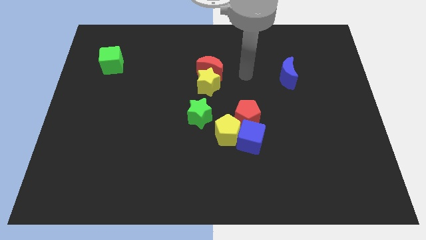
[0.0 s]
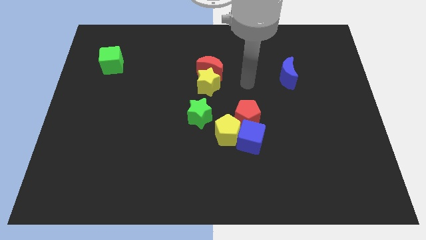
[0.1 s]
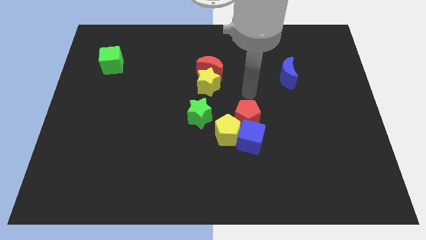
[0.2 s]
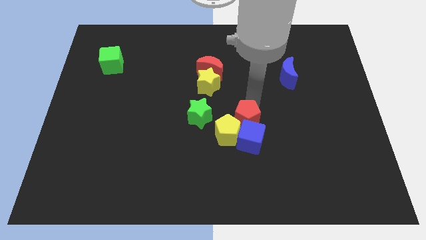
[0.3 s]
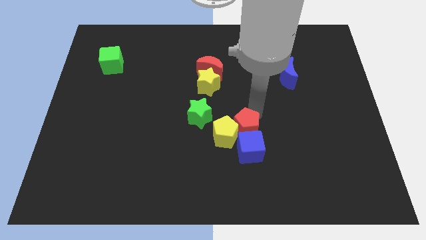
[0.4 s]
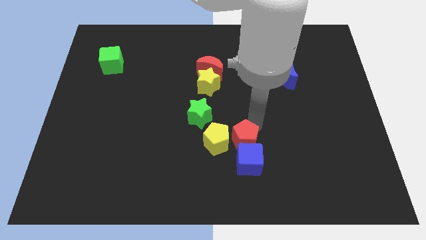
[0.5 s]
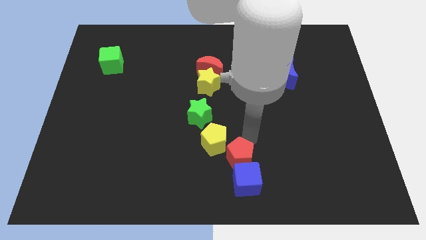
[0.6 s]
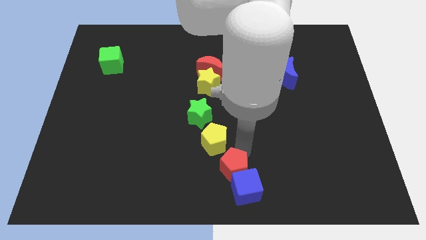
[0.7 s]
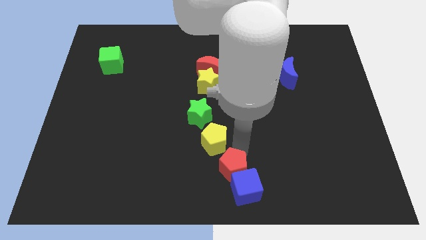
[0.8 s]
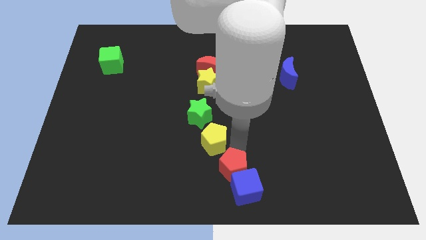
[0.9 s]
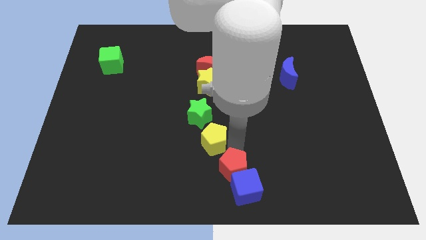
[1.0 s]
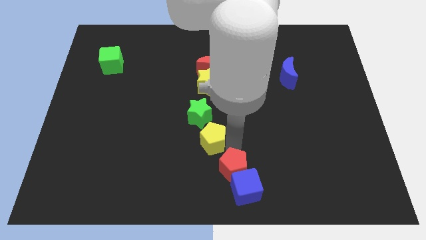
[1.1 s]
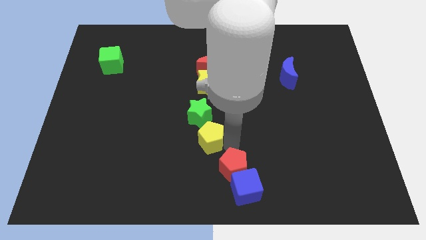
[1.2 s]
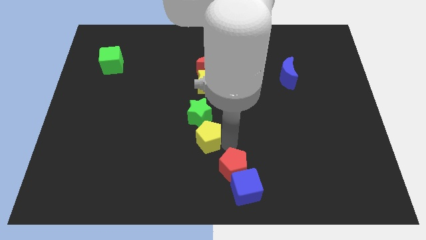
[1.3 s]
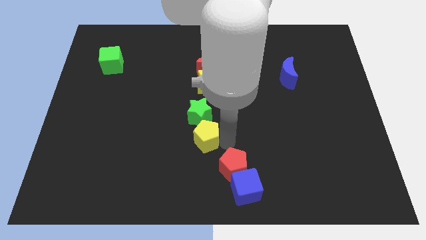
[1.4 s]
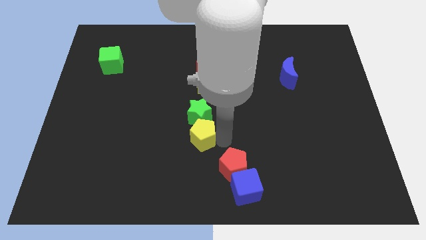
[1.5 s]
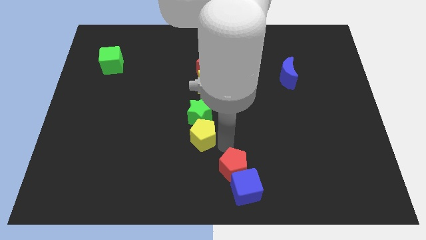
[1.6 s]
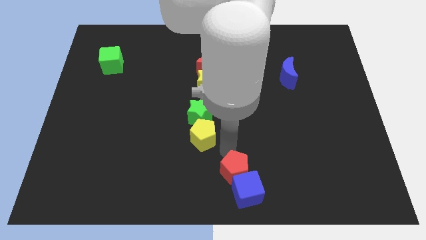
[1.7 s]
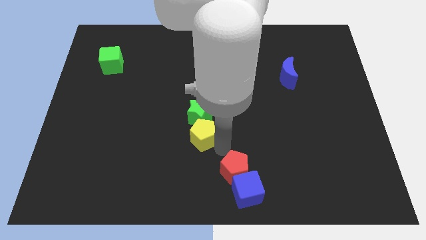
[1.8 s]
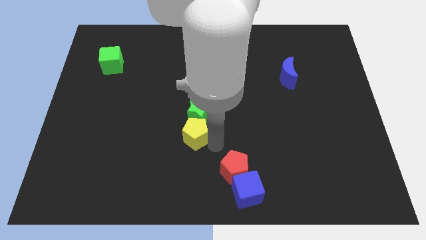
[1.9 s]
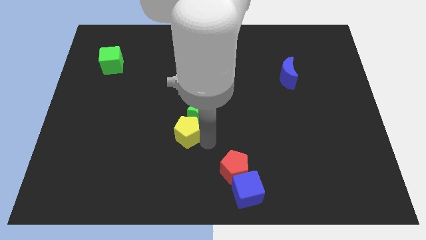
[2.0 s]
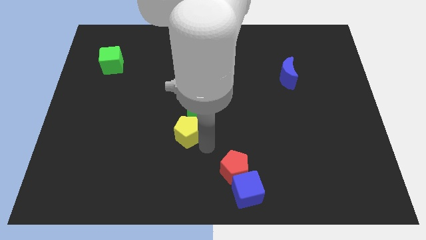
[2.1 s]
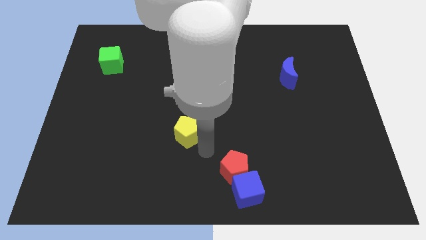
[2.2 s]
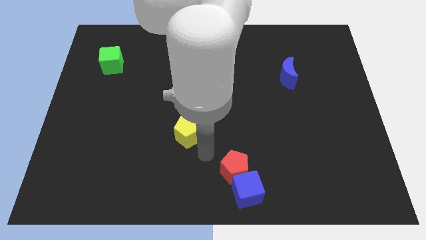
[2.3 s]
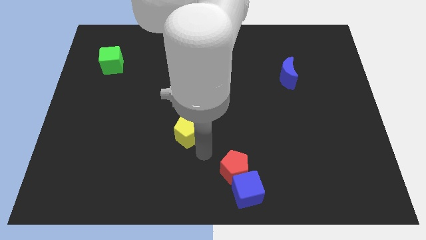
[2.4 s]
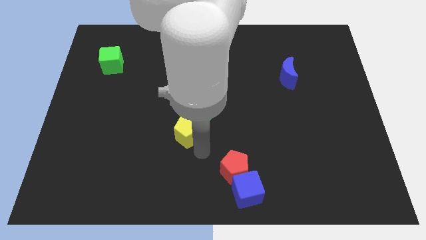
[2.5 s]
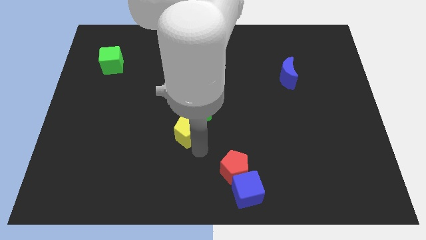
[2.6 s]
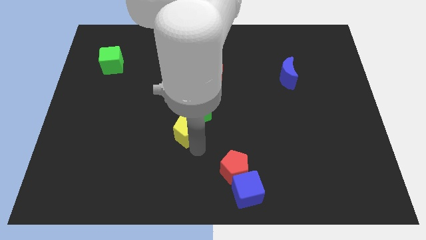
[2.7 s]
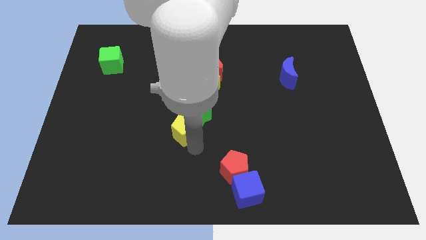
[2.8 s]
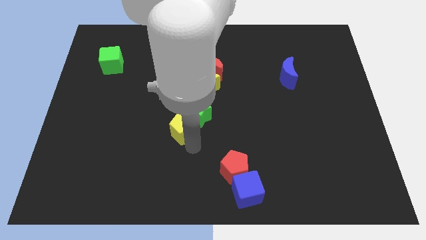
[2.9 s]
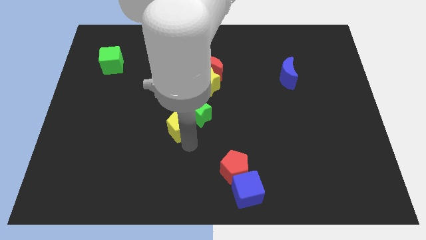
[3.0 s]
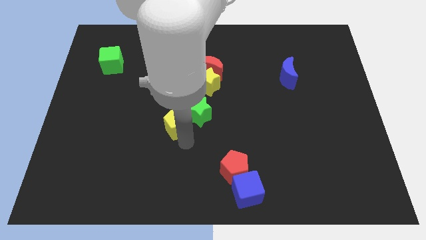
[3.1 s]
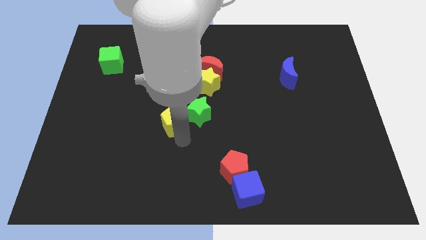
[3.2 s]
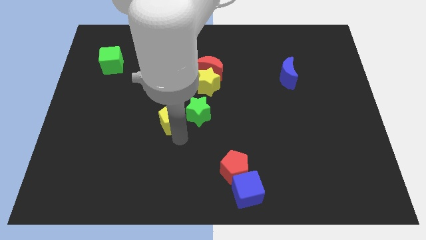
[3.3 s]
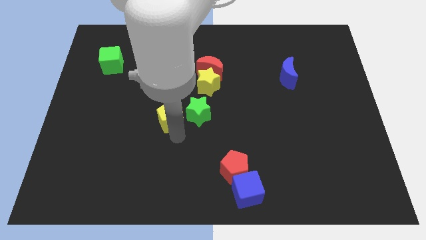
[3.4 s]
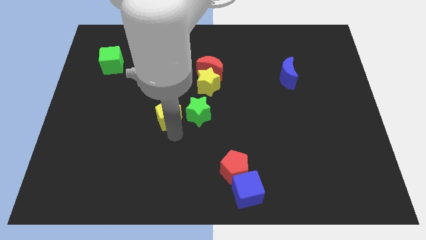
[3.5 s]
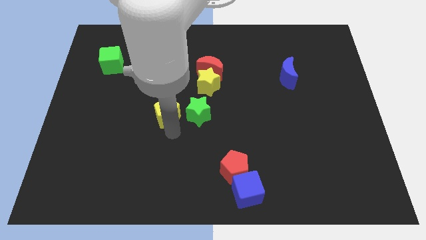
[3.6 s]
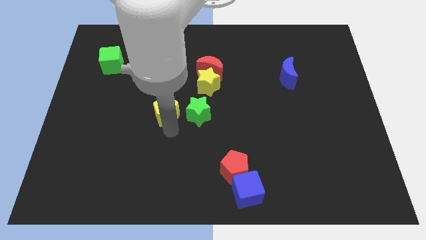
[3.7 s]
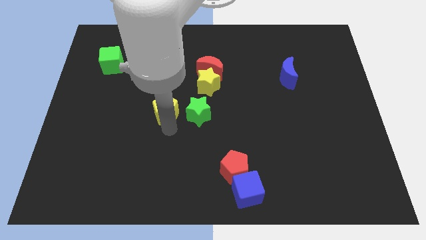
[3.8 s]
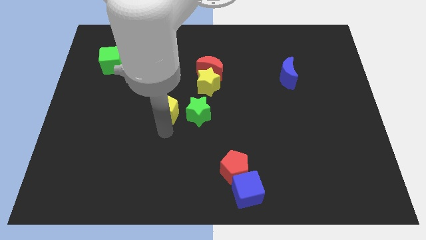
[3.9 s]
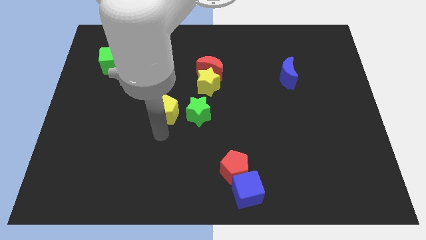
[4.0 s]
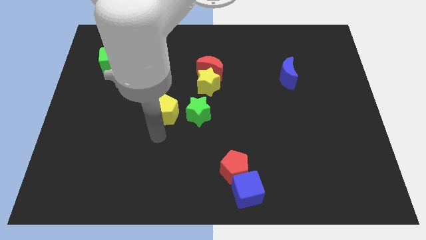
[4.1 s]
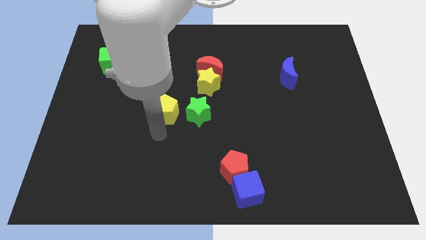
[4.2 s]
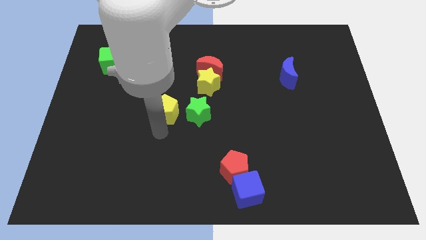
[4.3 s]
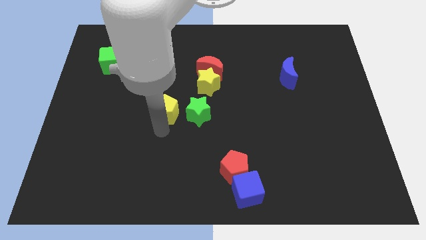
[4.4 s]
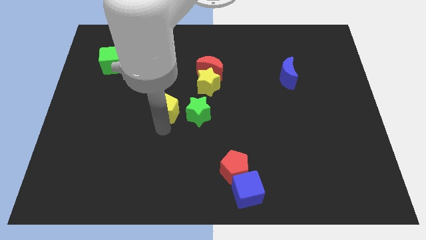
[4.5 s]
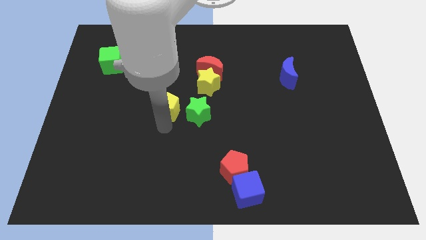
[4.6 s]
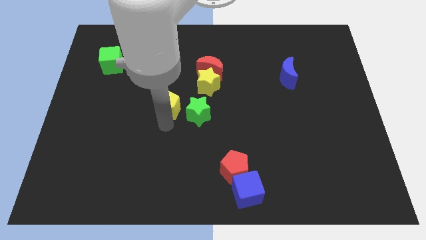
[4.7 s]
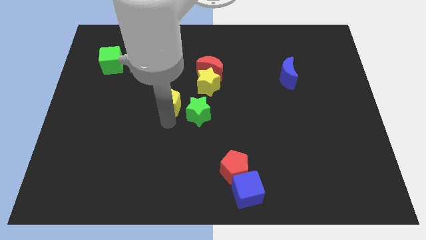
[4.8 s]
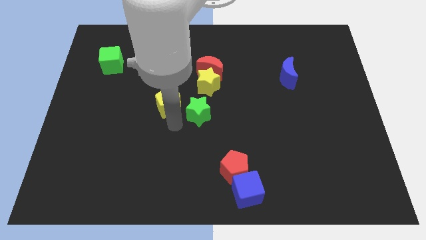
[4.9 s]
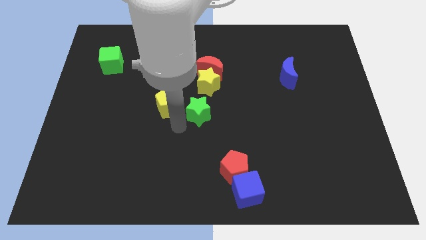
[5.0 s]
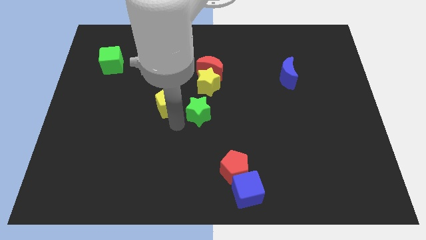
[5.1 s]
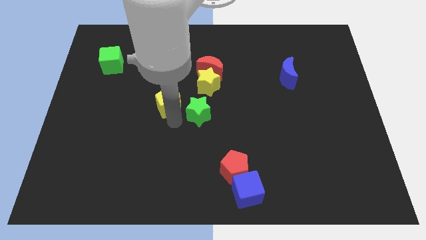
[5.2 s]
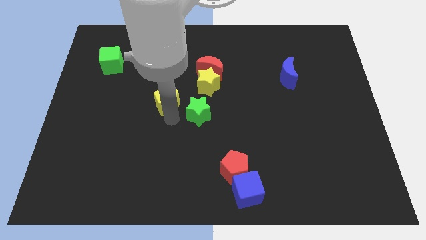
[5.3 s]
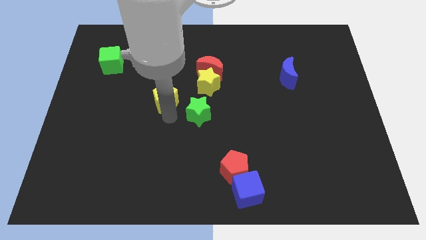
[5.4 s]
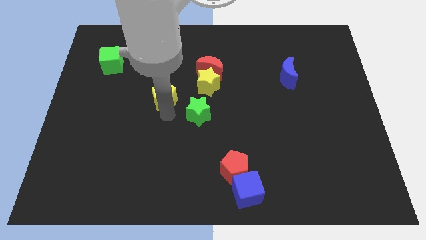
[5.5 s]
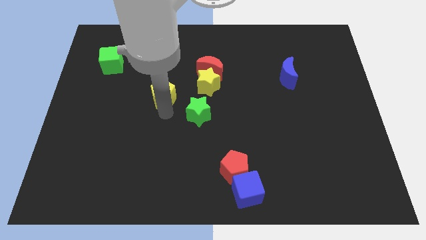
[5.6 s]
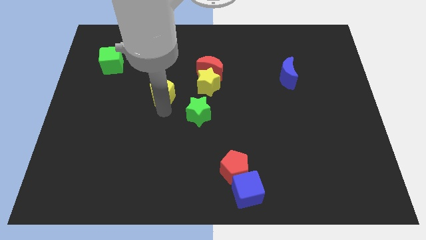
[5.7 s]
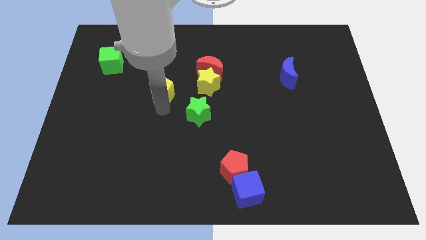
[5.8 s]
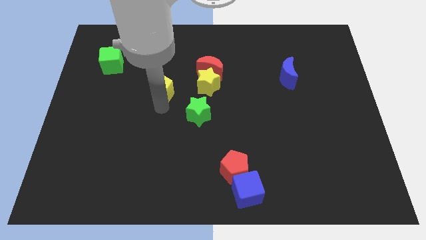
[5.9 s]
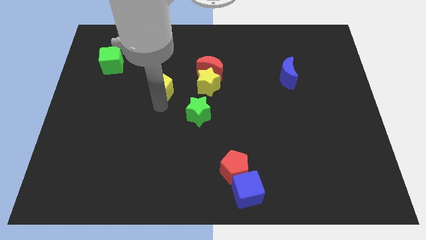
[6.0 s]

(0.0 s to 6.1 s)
move the yellow pentagon upwards and left

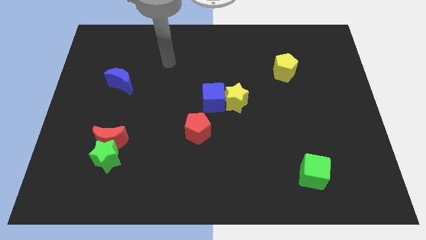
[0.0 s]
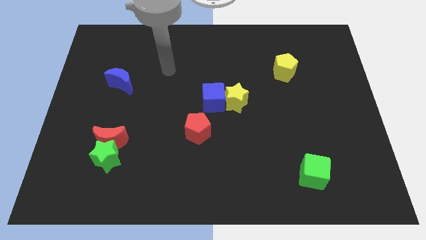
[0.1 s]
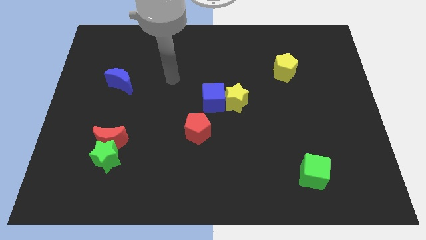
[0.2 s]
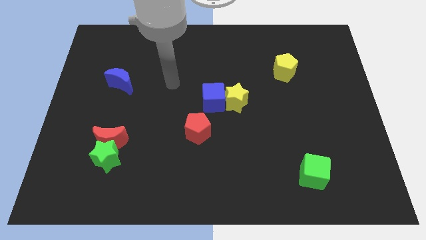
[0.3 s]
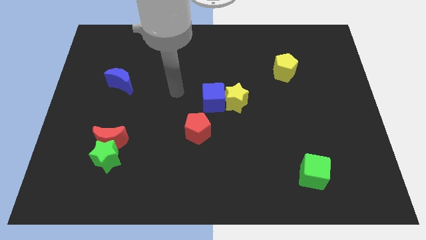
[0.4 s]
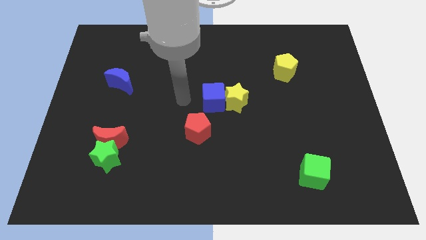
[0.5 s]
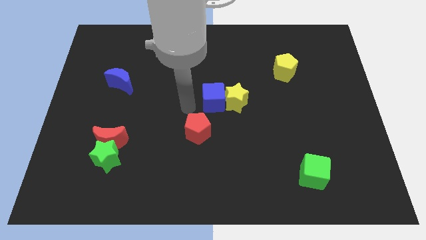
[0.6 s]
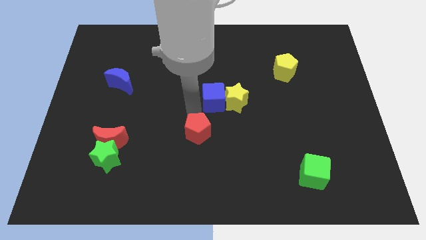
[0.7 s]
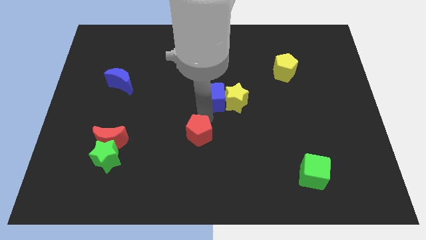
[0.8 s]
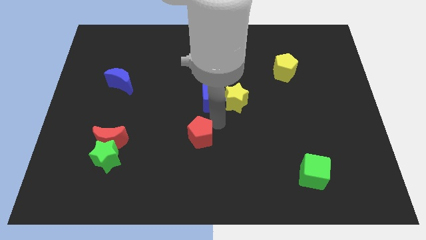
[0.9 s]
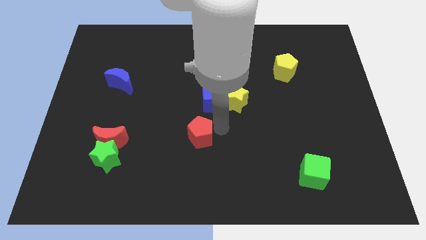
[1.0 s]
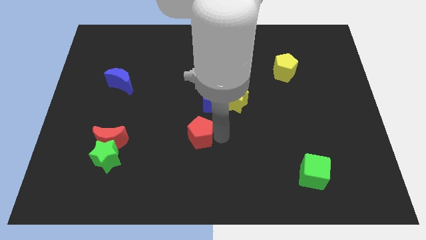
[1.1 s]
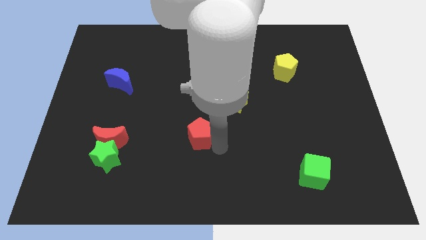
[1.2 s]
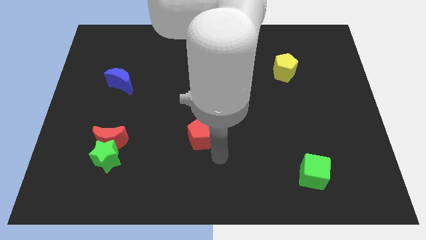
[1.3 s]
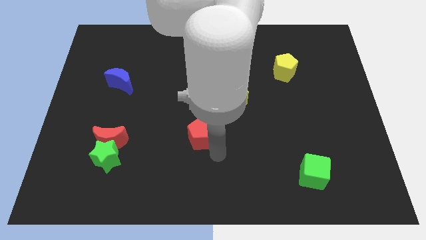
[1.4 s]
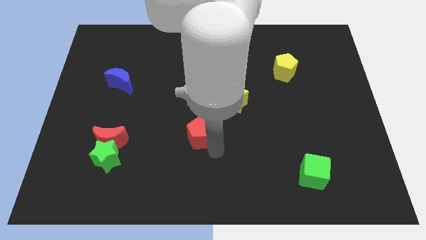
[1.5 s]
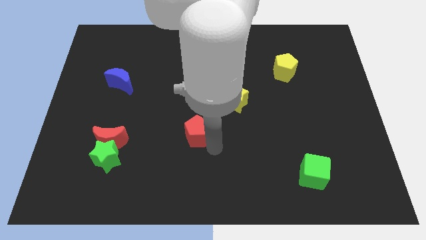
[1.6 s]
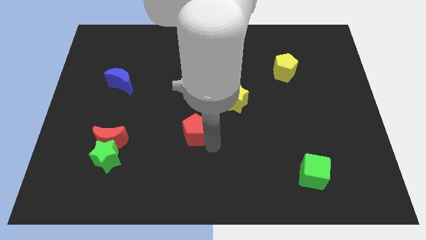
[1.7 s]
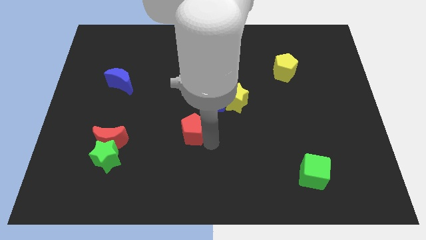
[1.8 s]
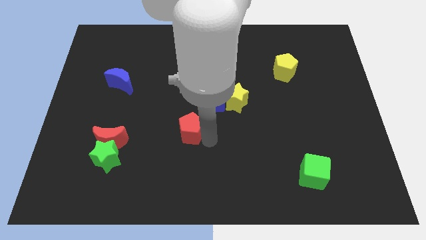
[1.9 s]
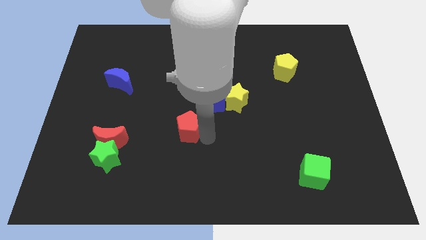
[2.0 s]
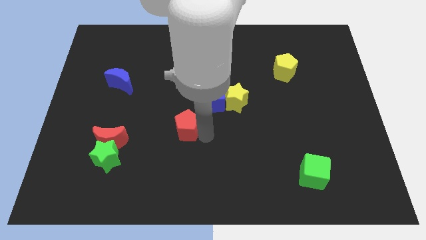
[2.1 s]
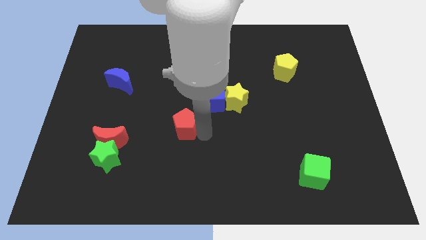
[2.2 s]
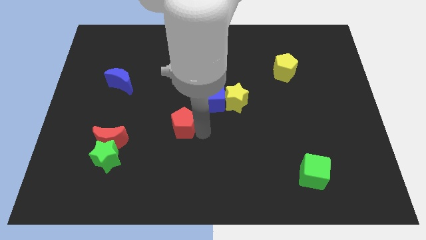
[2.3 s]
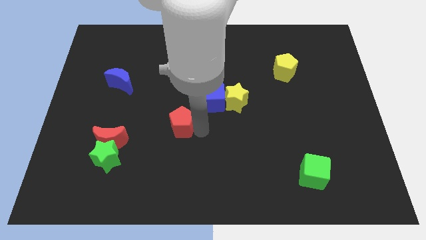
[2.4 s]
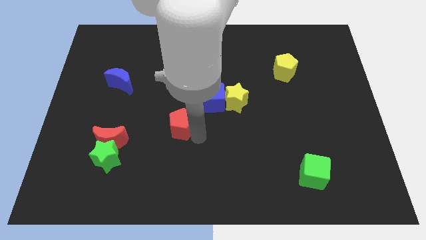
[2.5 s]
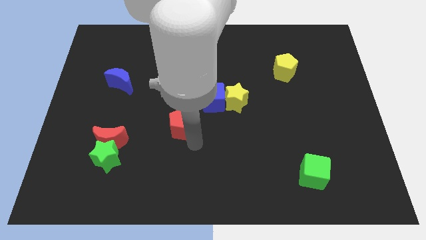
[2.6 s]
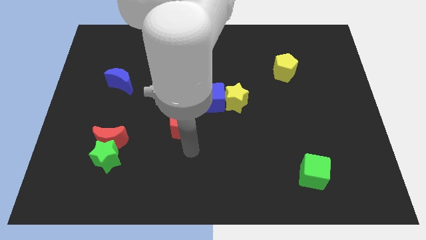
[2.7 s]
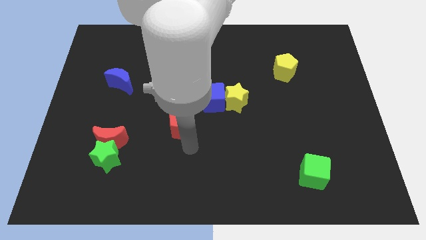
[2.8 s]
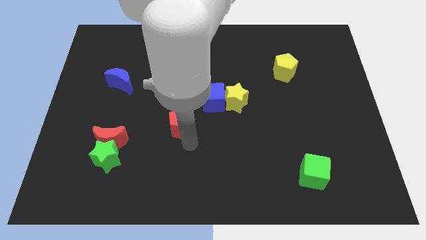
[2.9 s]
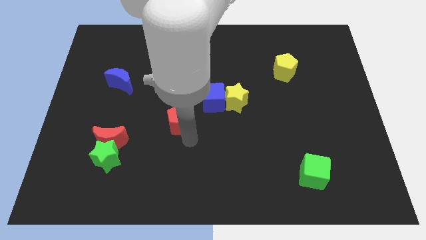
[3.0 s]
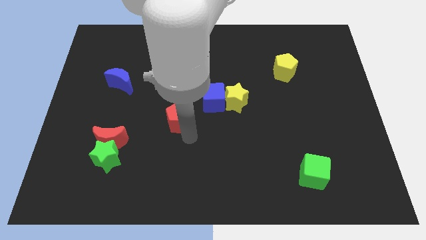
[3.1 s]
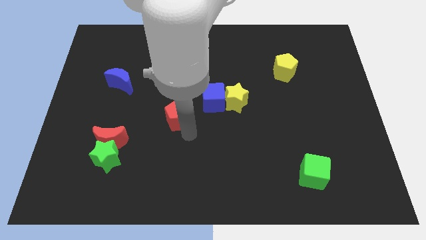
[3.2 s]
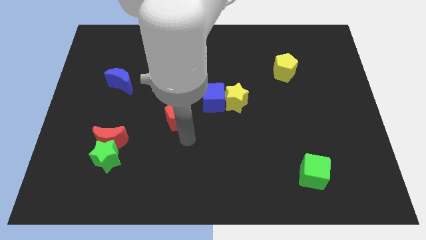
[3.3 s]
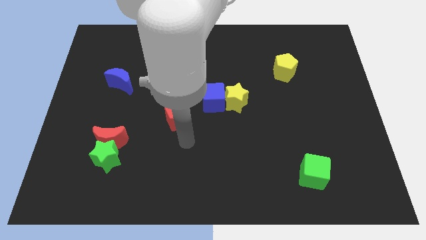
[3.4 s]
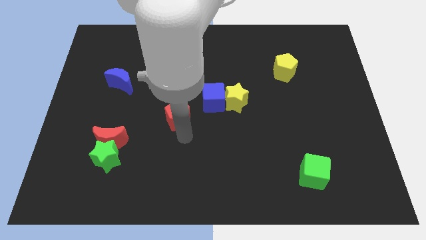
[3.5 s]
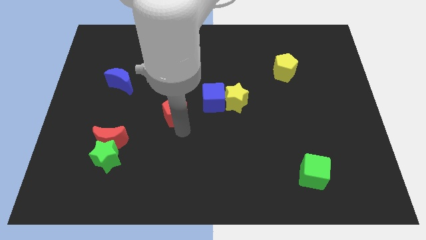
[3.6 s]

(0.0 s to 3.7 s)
slide the red pentagon diagonally upwards and left a bit
